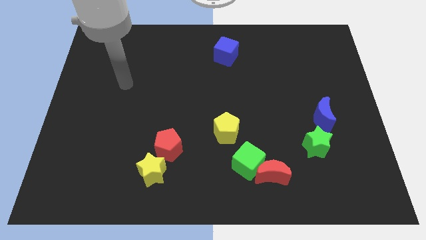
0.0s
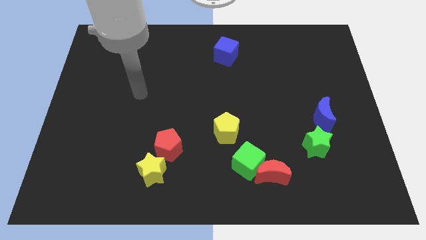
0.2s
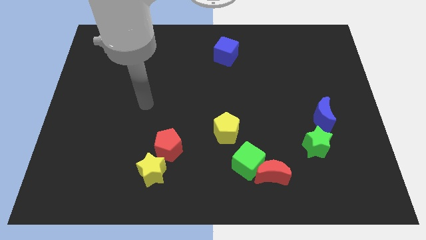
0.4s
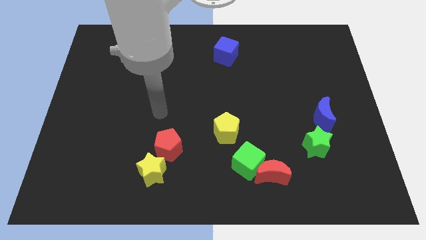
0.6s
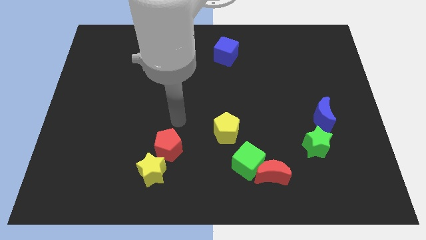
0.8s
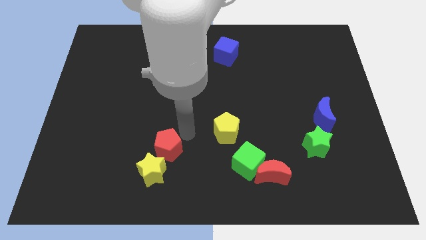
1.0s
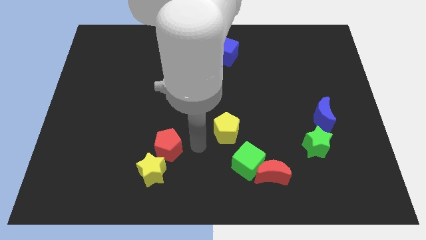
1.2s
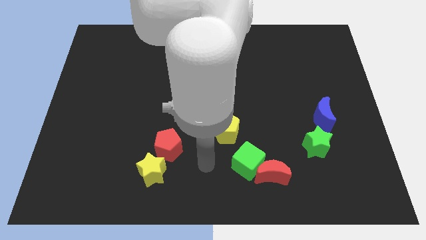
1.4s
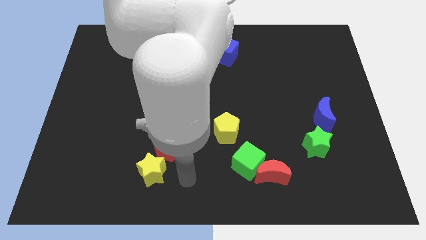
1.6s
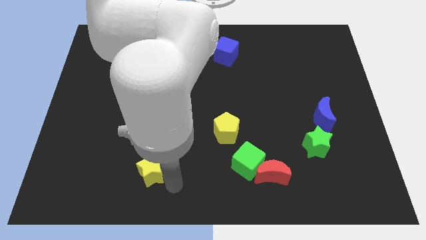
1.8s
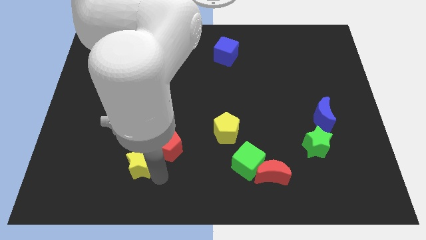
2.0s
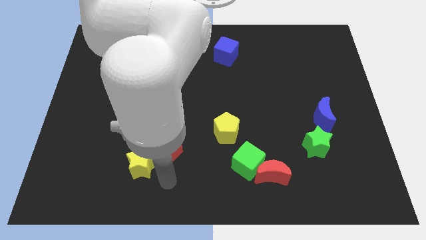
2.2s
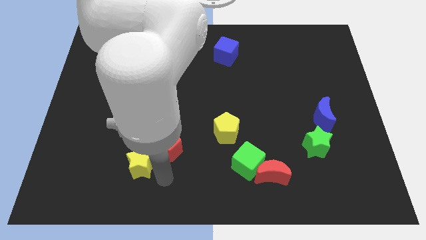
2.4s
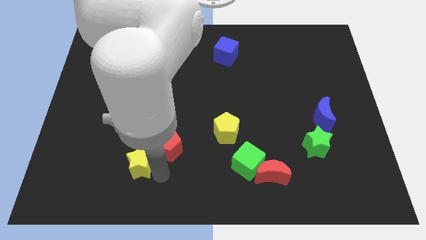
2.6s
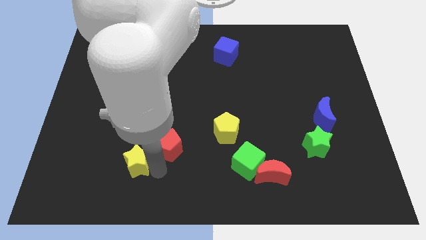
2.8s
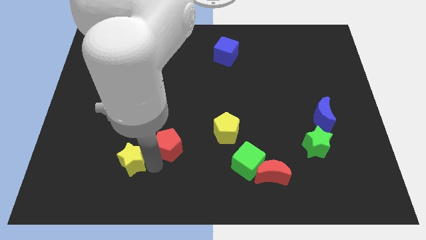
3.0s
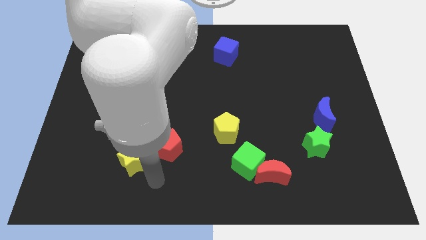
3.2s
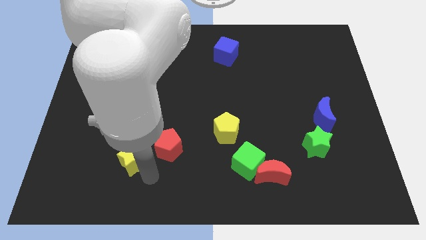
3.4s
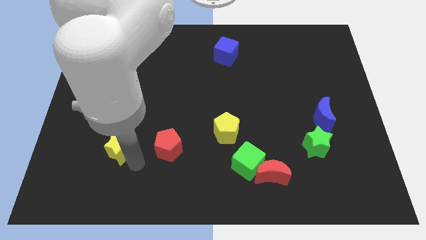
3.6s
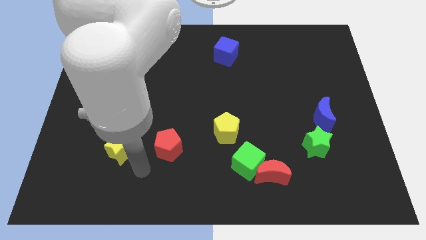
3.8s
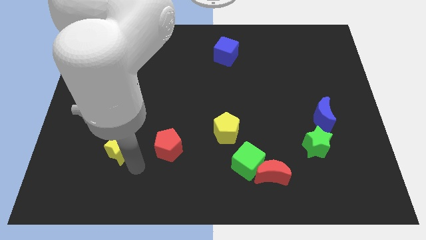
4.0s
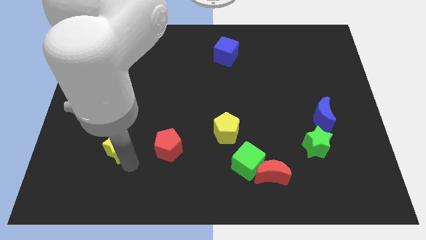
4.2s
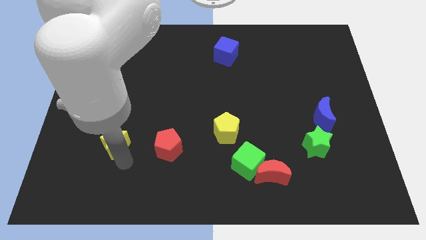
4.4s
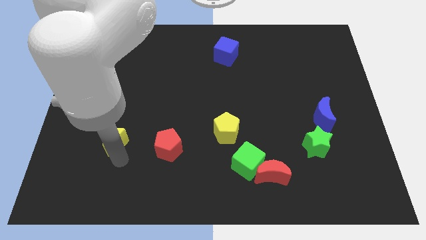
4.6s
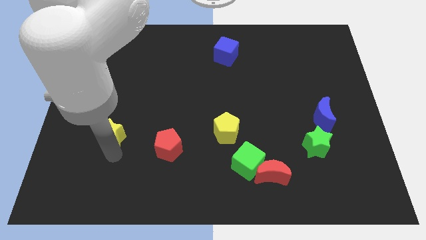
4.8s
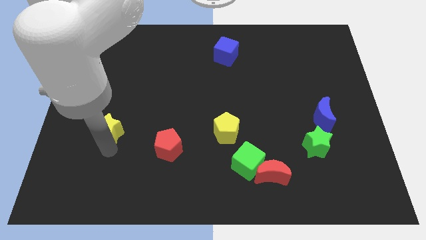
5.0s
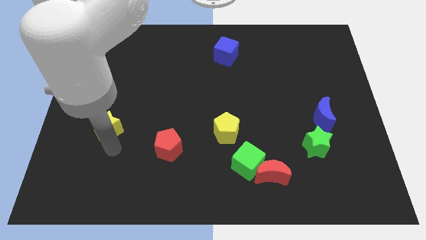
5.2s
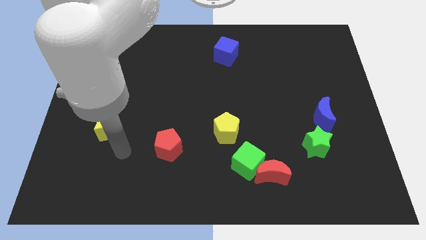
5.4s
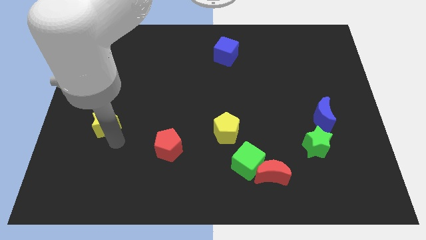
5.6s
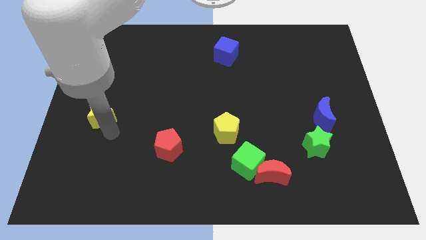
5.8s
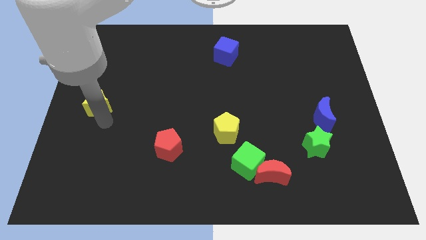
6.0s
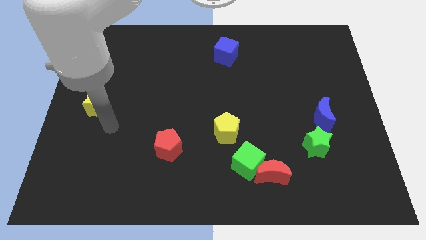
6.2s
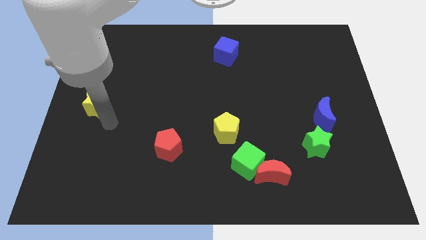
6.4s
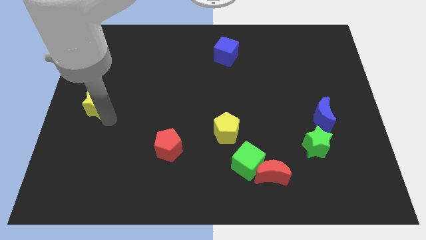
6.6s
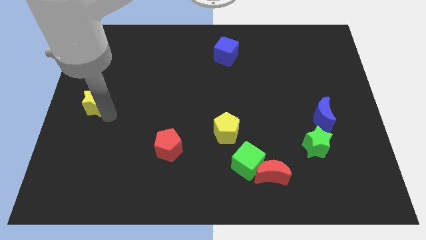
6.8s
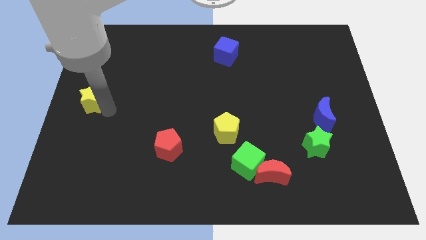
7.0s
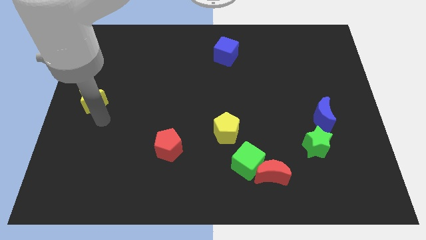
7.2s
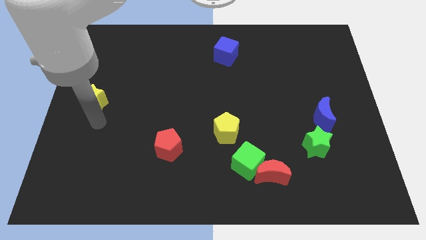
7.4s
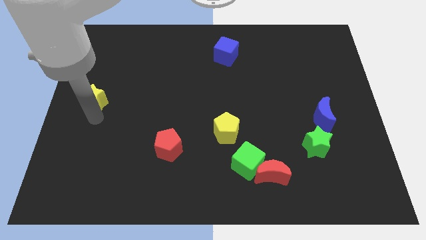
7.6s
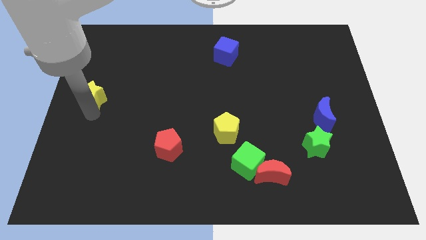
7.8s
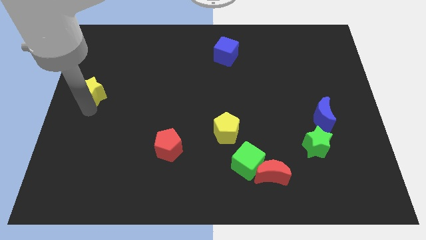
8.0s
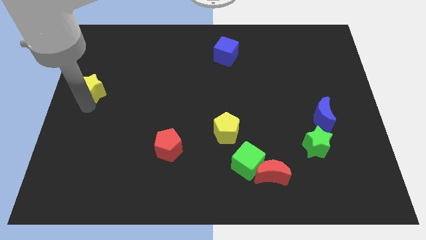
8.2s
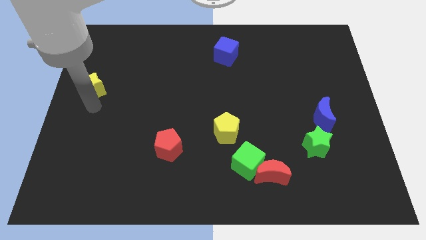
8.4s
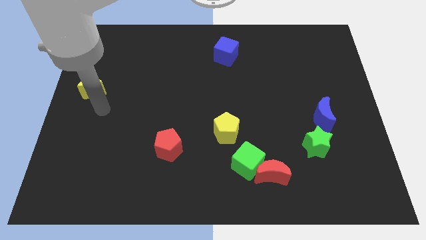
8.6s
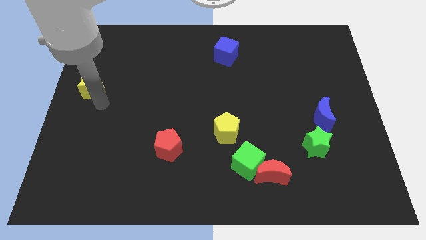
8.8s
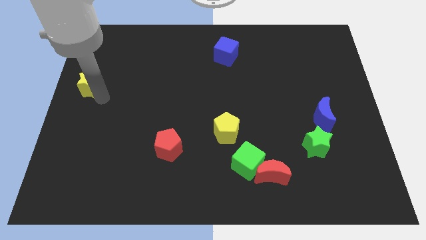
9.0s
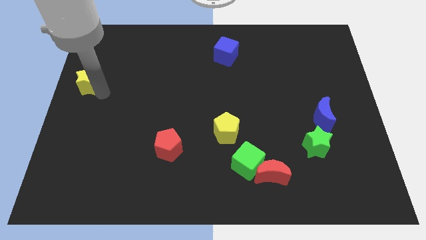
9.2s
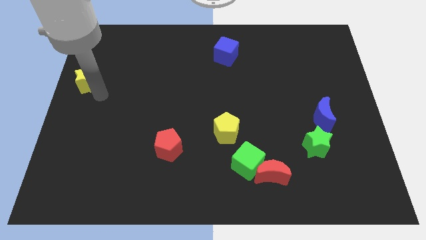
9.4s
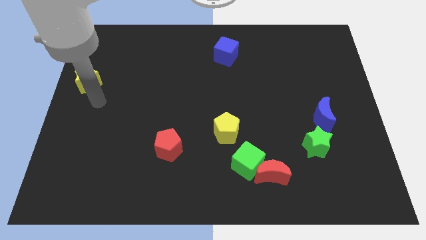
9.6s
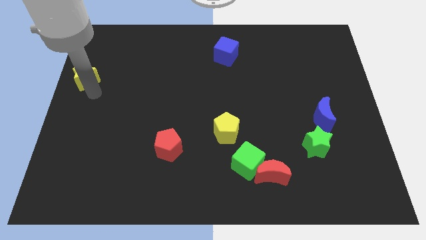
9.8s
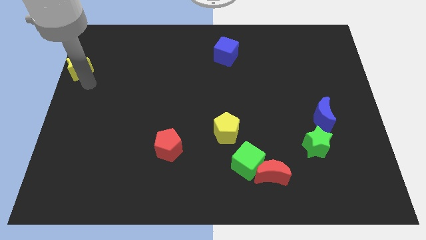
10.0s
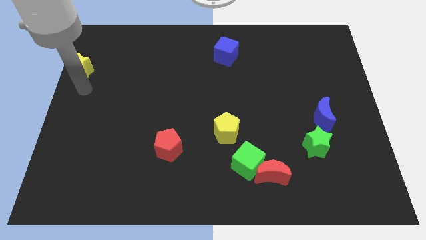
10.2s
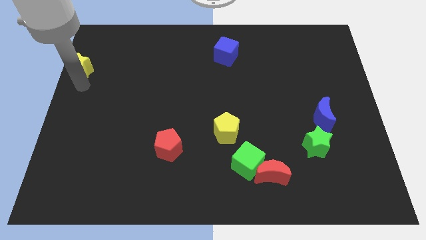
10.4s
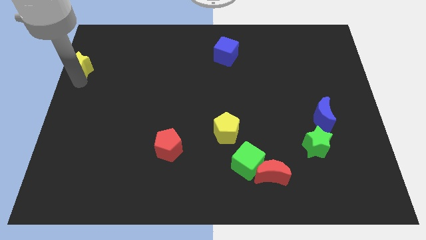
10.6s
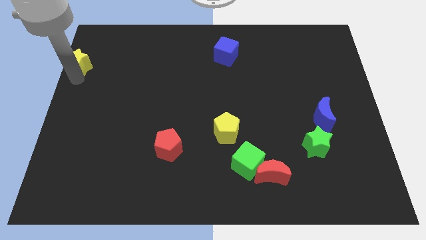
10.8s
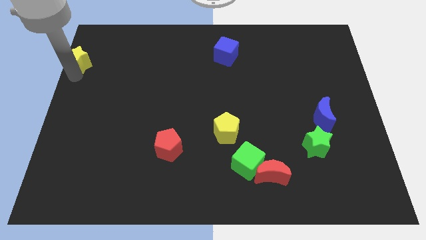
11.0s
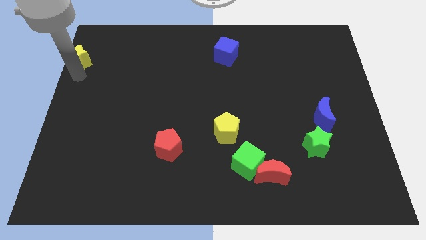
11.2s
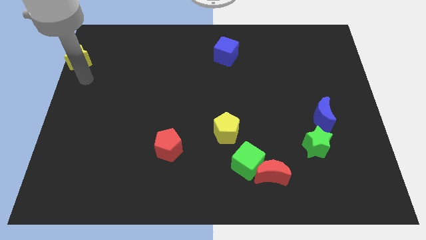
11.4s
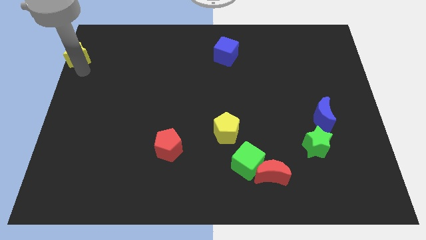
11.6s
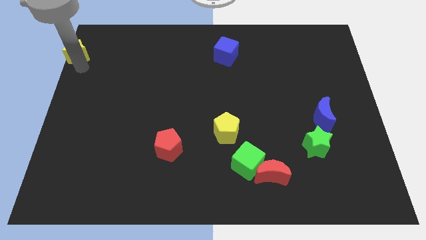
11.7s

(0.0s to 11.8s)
slide the yellow star to the top left corner
